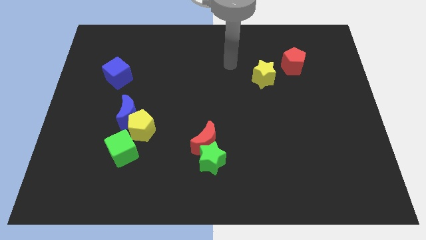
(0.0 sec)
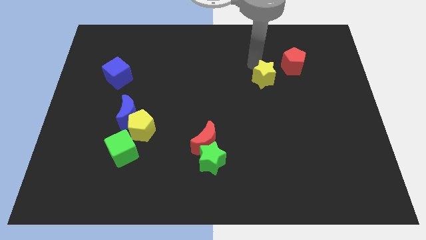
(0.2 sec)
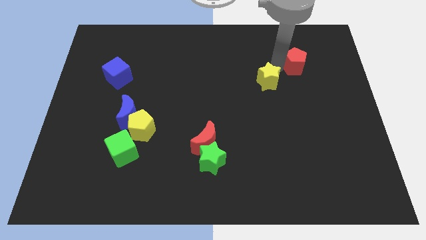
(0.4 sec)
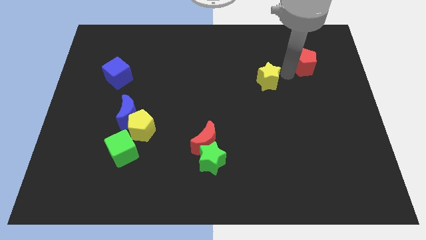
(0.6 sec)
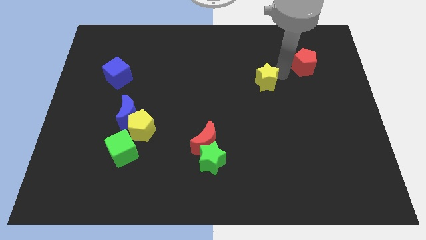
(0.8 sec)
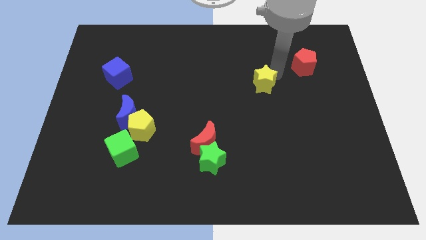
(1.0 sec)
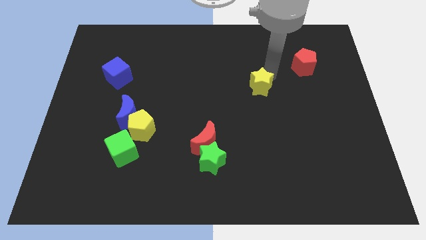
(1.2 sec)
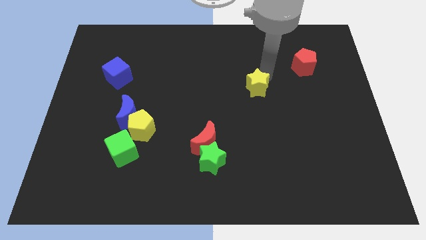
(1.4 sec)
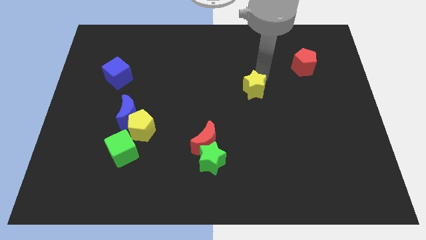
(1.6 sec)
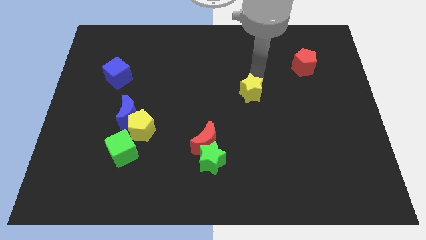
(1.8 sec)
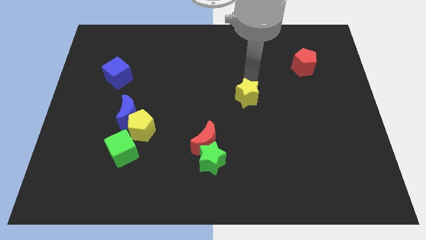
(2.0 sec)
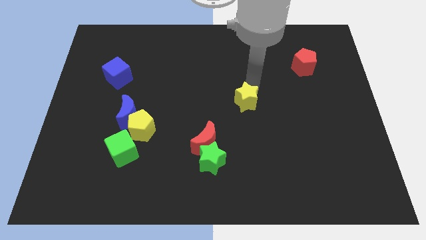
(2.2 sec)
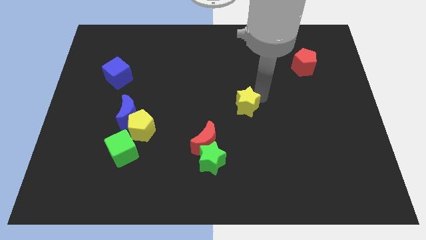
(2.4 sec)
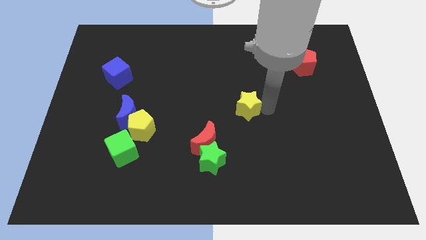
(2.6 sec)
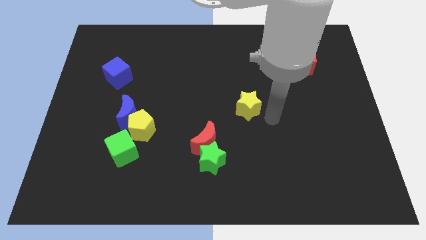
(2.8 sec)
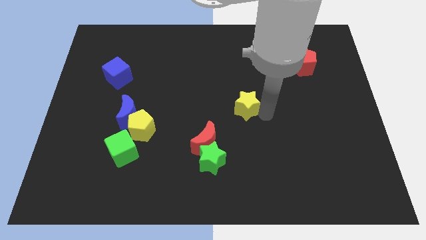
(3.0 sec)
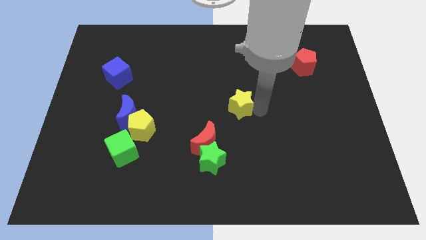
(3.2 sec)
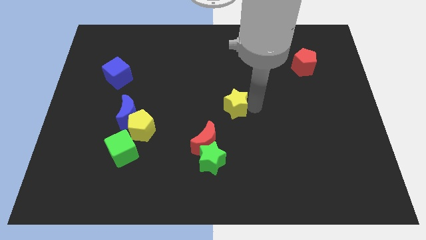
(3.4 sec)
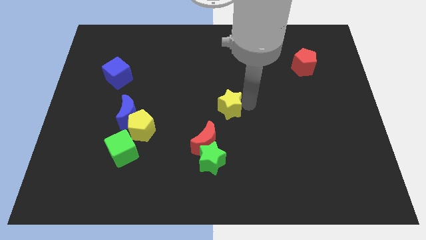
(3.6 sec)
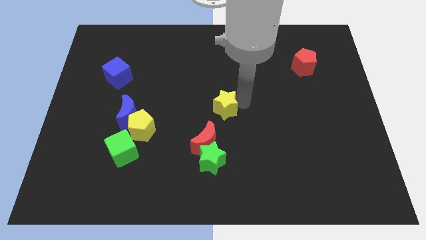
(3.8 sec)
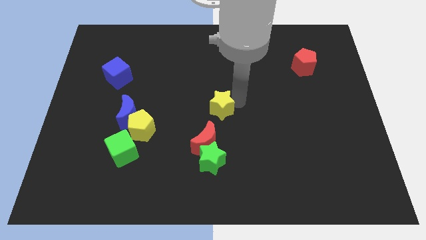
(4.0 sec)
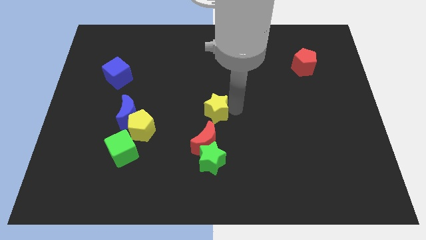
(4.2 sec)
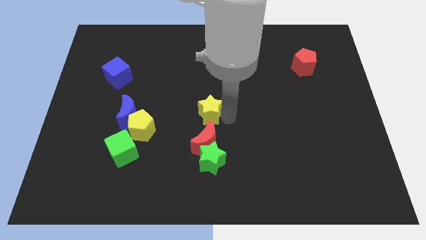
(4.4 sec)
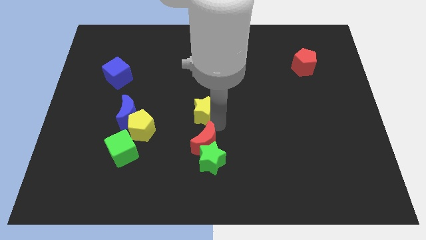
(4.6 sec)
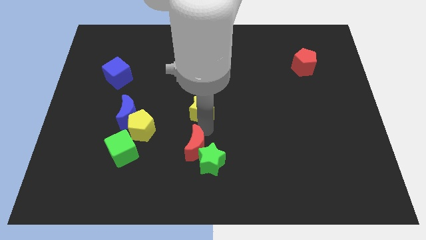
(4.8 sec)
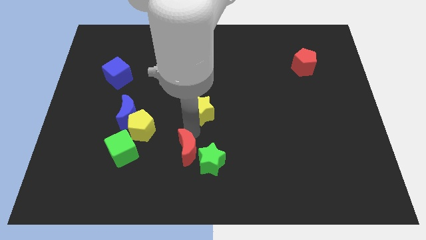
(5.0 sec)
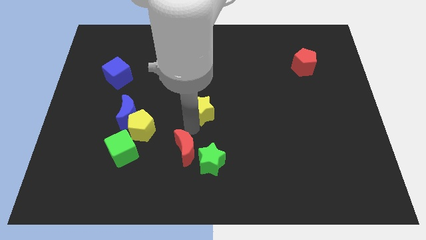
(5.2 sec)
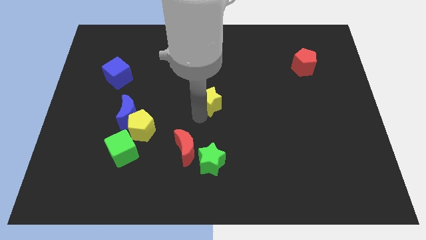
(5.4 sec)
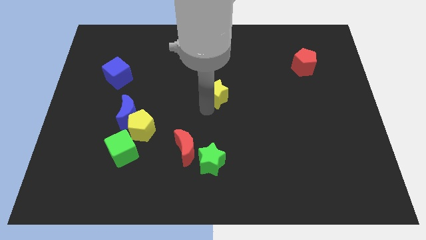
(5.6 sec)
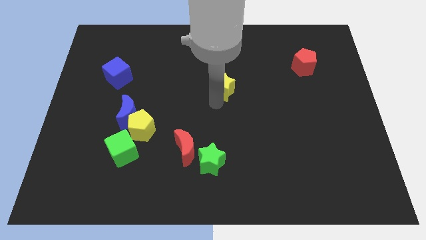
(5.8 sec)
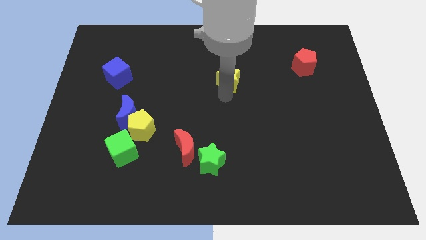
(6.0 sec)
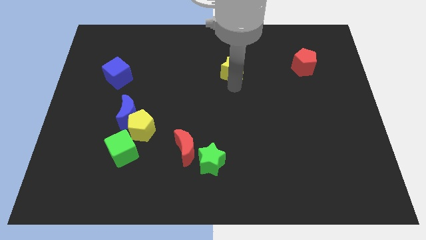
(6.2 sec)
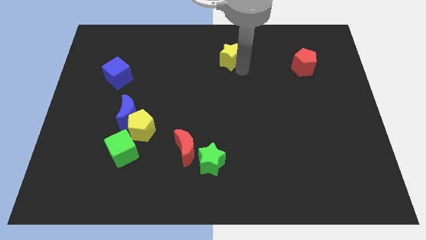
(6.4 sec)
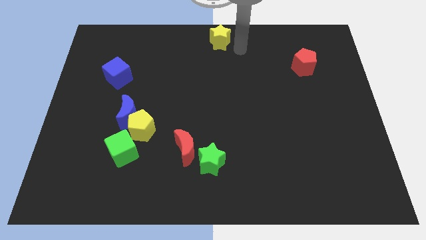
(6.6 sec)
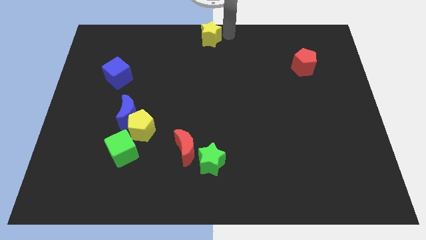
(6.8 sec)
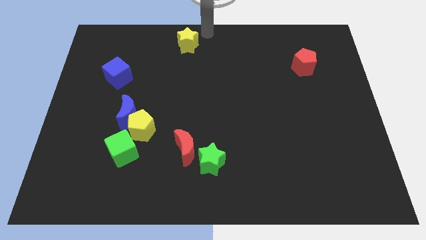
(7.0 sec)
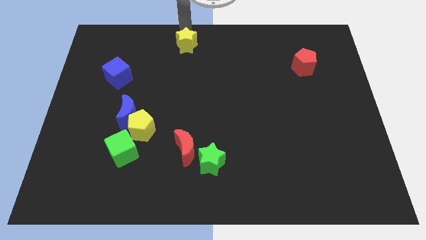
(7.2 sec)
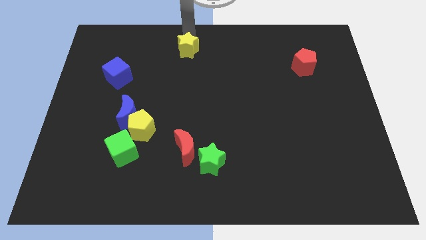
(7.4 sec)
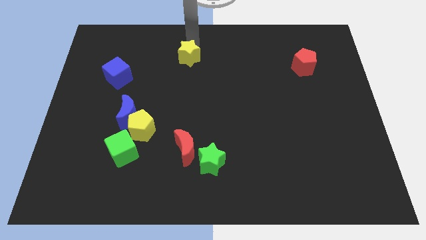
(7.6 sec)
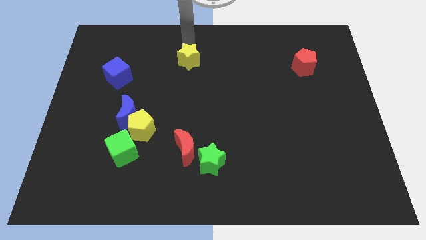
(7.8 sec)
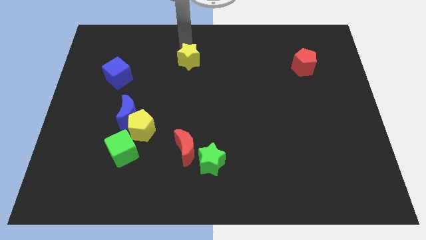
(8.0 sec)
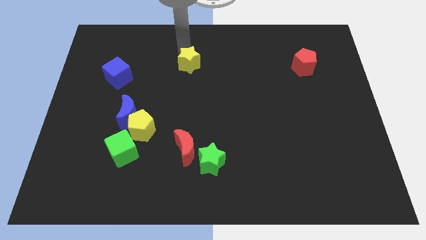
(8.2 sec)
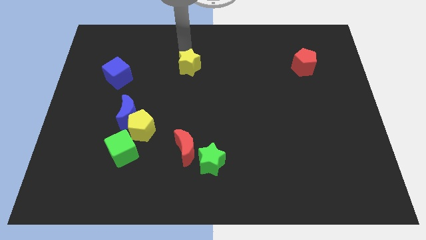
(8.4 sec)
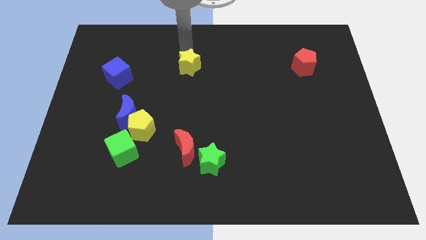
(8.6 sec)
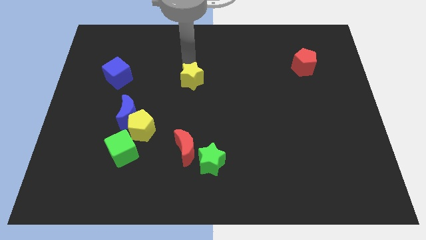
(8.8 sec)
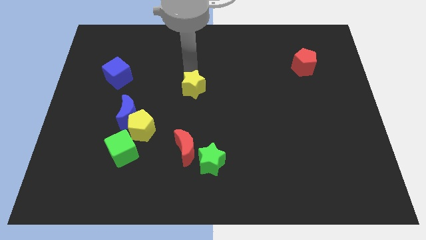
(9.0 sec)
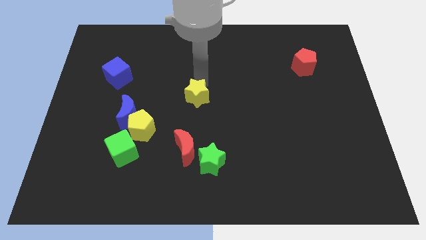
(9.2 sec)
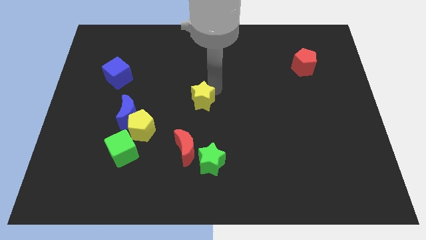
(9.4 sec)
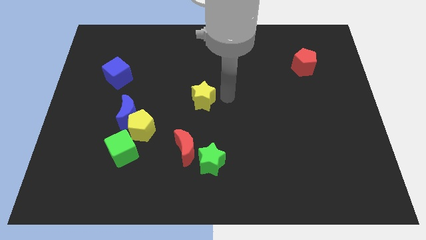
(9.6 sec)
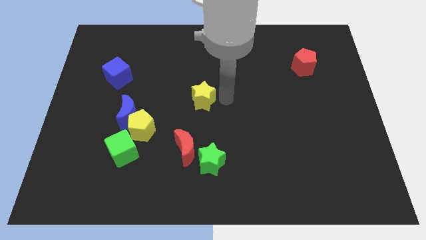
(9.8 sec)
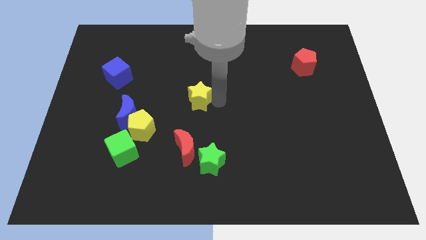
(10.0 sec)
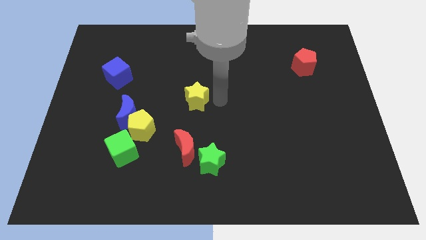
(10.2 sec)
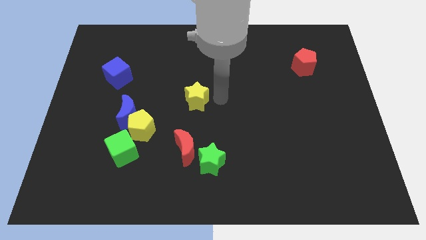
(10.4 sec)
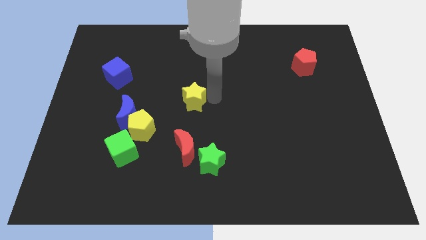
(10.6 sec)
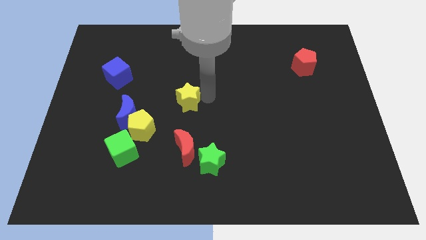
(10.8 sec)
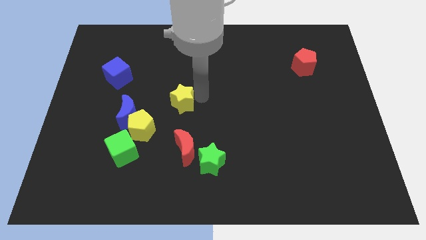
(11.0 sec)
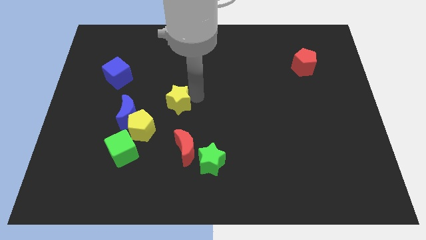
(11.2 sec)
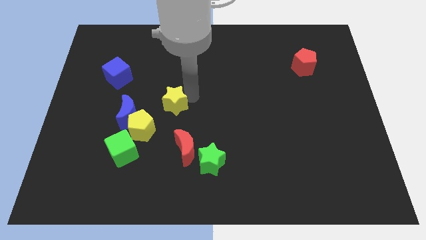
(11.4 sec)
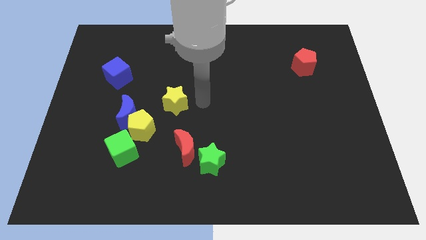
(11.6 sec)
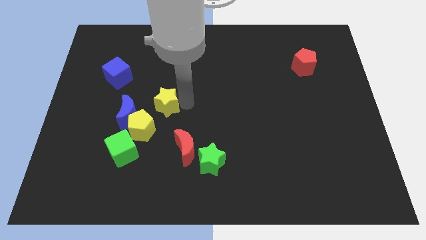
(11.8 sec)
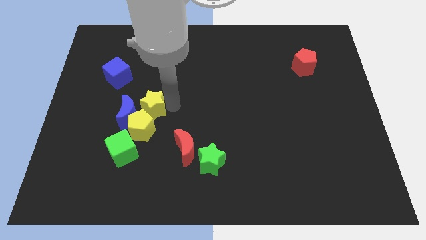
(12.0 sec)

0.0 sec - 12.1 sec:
put the yellow star to the blue moon

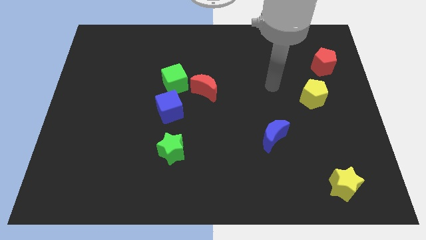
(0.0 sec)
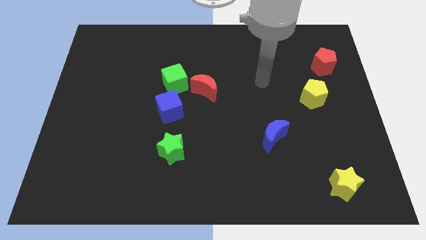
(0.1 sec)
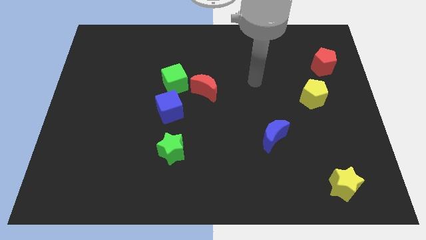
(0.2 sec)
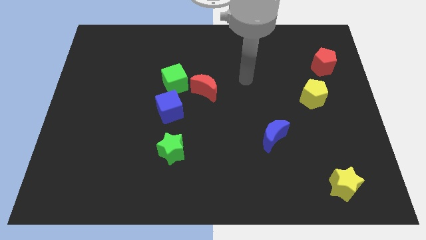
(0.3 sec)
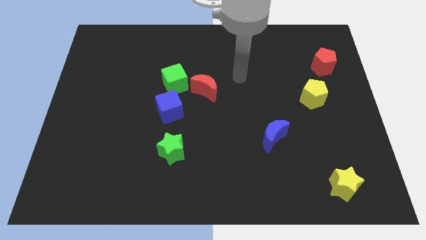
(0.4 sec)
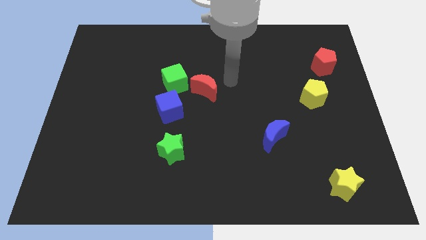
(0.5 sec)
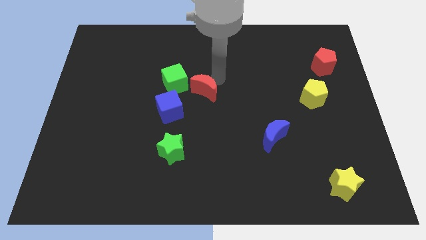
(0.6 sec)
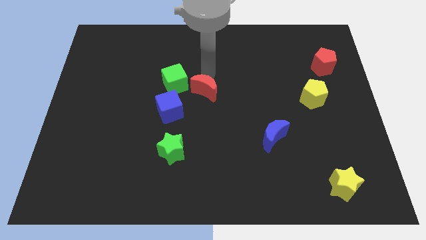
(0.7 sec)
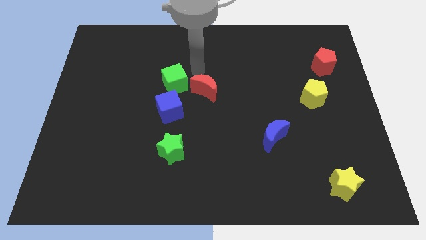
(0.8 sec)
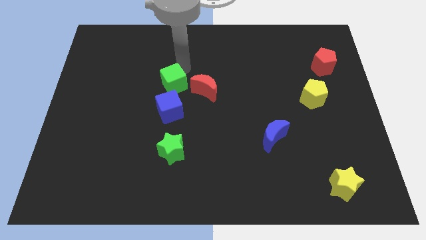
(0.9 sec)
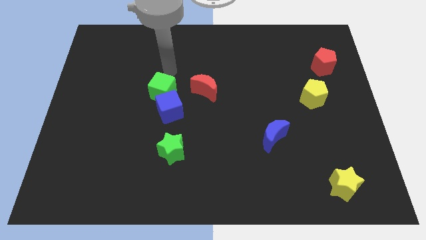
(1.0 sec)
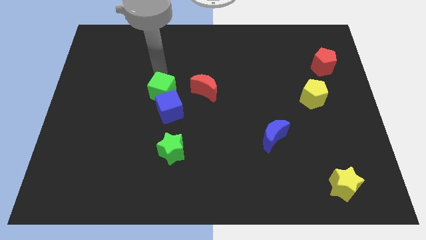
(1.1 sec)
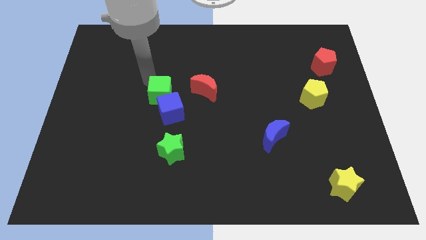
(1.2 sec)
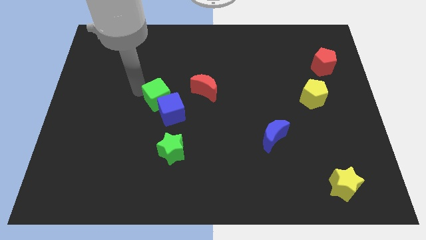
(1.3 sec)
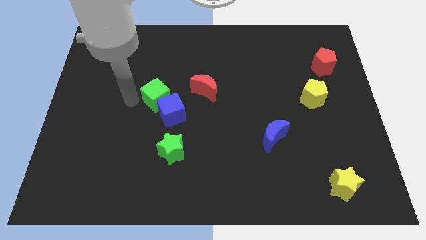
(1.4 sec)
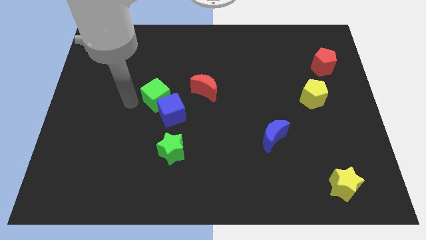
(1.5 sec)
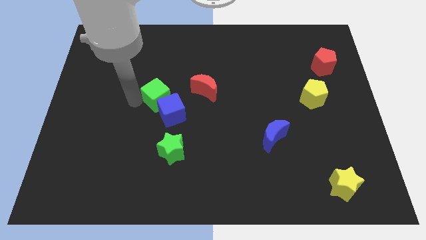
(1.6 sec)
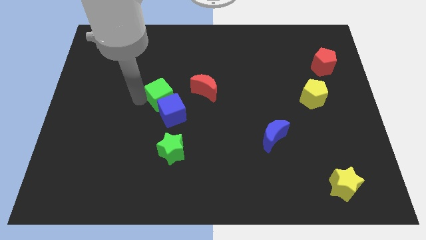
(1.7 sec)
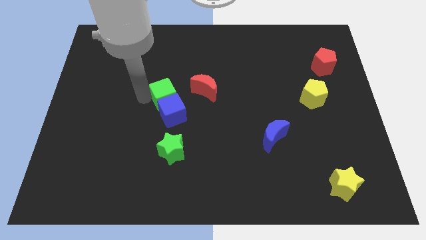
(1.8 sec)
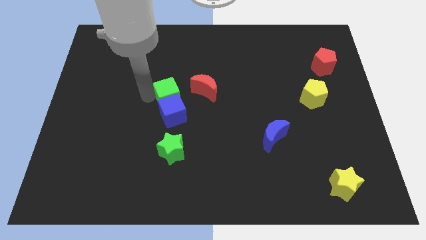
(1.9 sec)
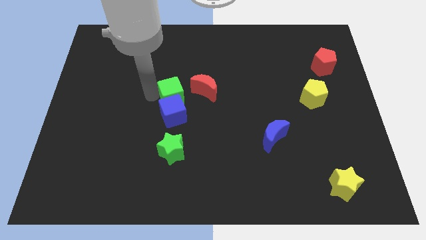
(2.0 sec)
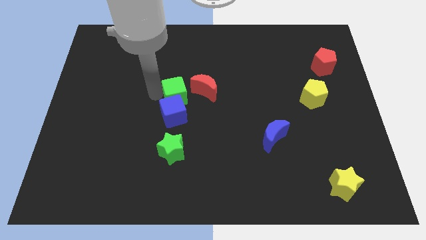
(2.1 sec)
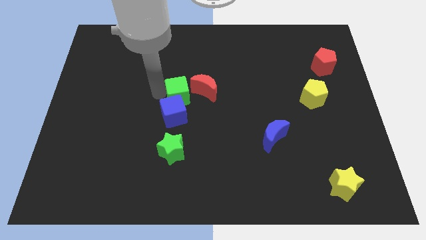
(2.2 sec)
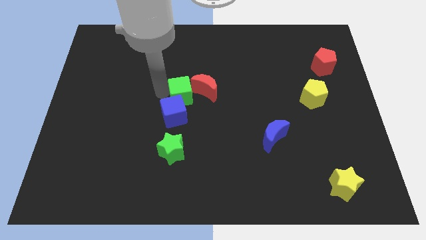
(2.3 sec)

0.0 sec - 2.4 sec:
move the green cube towards the red moon
